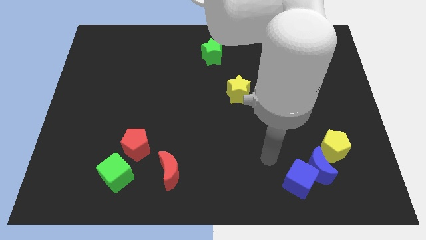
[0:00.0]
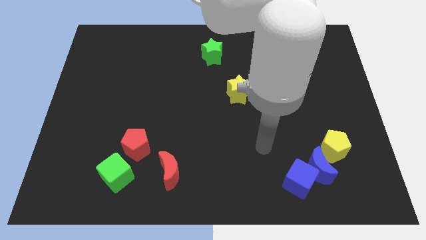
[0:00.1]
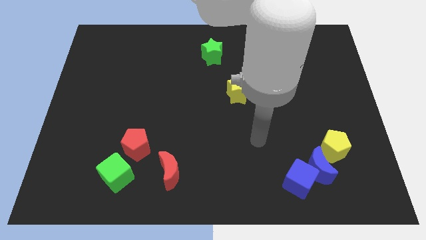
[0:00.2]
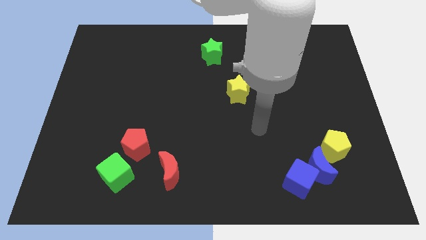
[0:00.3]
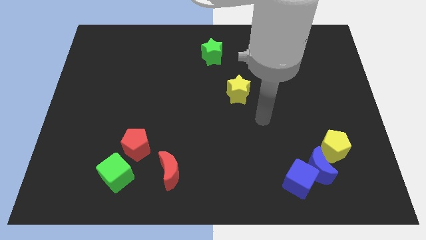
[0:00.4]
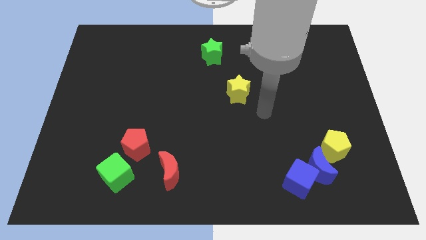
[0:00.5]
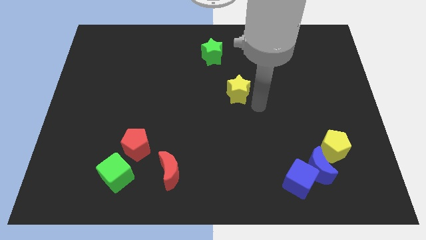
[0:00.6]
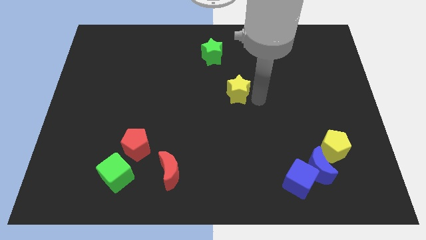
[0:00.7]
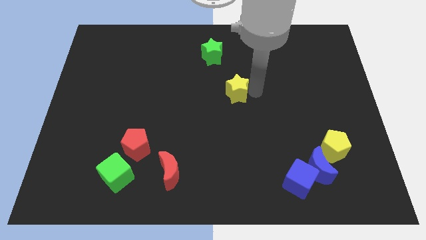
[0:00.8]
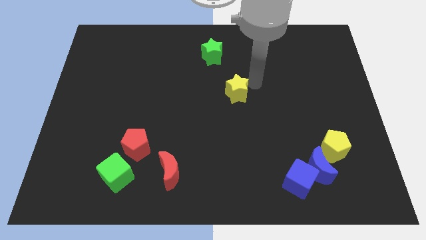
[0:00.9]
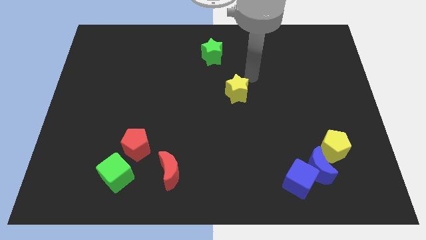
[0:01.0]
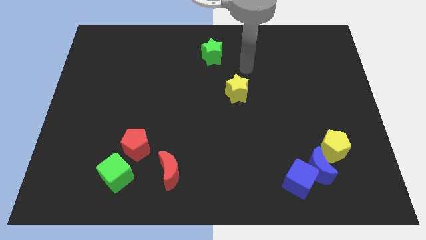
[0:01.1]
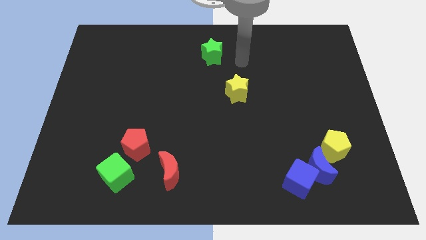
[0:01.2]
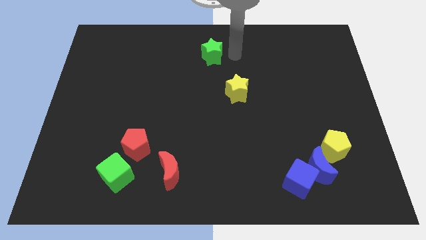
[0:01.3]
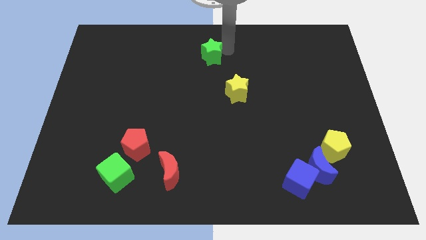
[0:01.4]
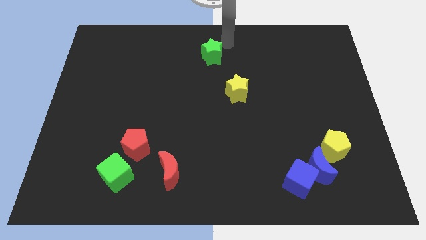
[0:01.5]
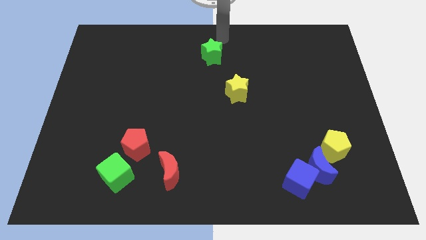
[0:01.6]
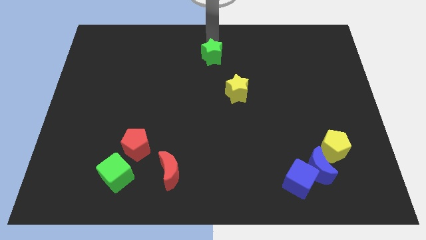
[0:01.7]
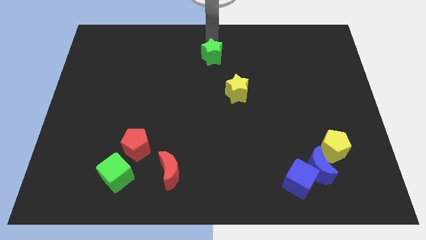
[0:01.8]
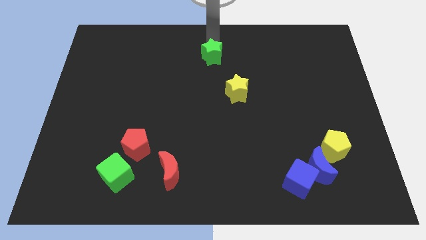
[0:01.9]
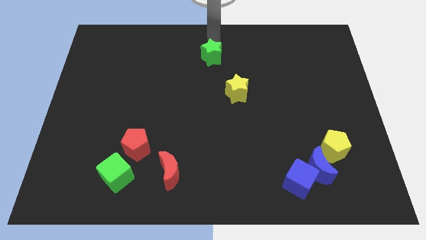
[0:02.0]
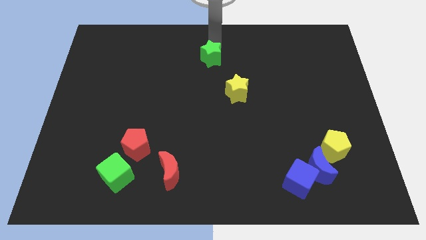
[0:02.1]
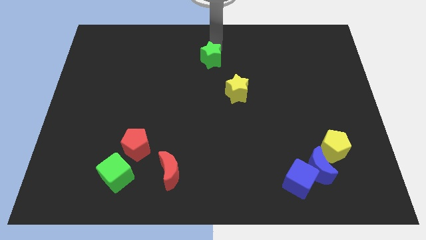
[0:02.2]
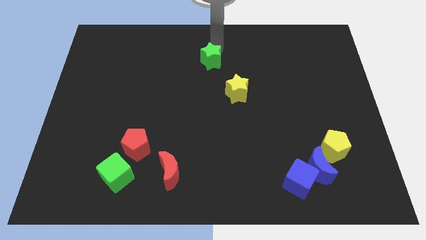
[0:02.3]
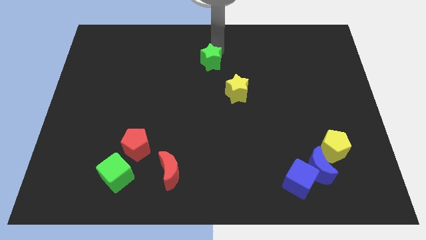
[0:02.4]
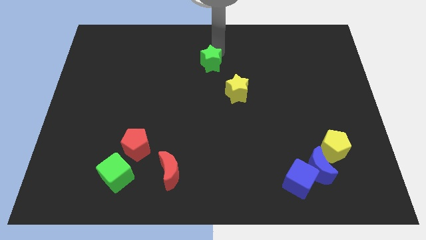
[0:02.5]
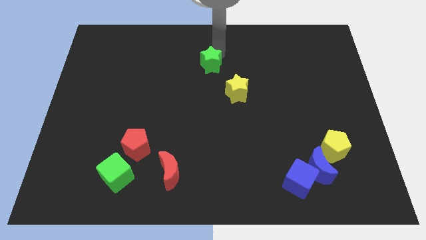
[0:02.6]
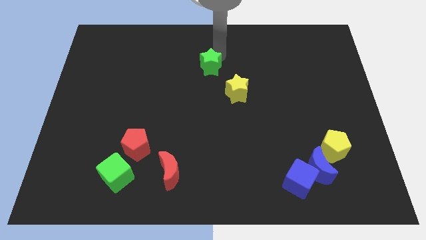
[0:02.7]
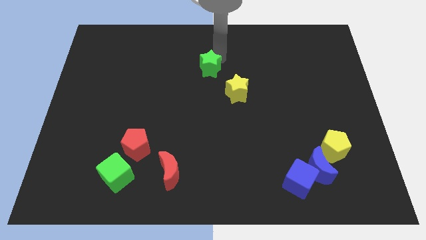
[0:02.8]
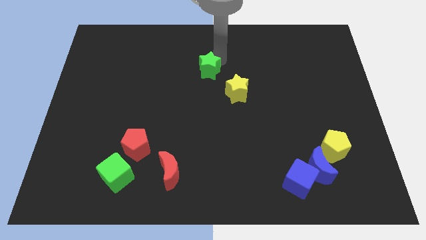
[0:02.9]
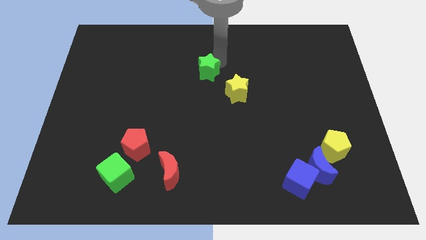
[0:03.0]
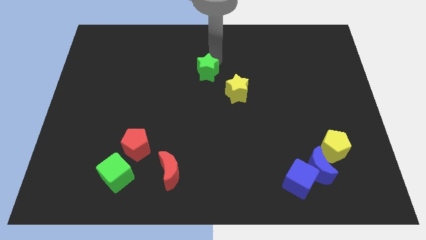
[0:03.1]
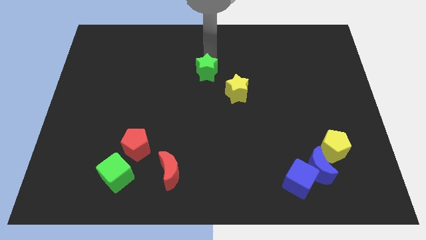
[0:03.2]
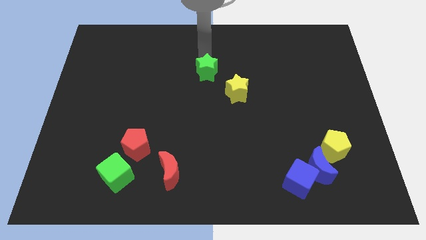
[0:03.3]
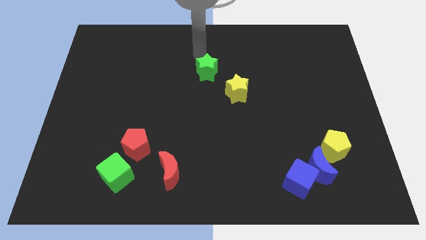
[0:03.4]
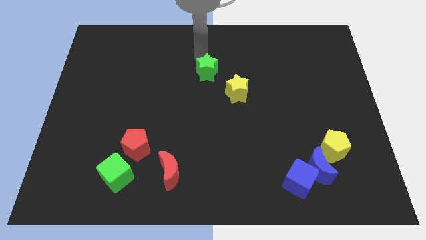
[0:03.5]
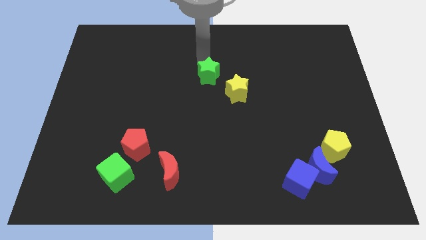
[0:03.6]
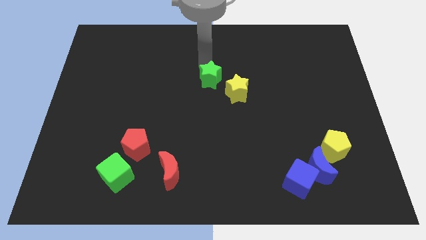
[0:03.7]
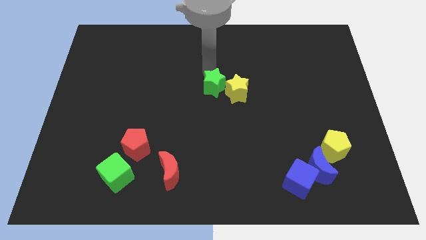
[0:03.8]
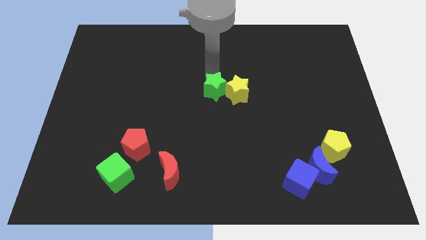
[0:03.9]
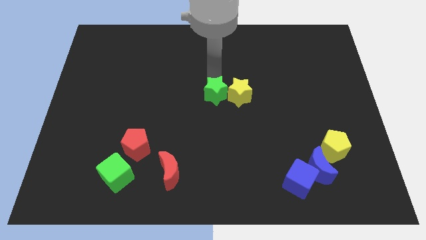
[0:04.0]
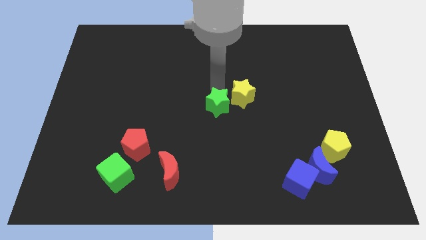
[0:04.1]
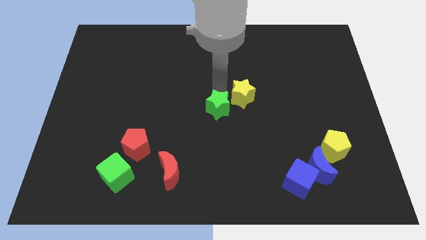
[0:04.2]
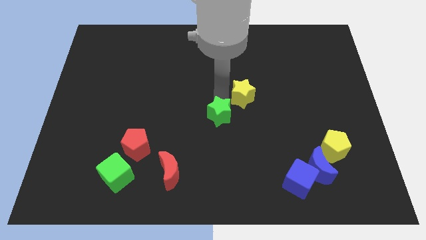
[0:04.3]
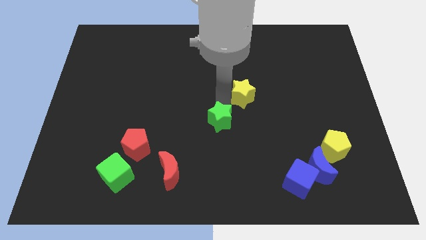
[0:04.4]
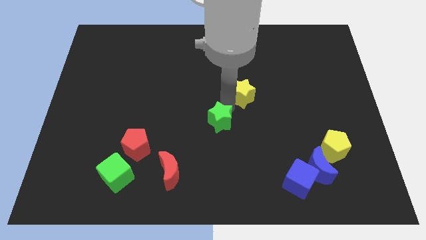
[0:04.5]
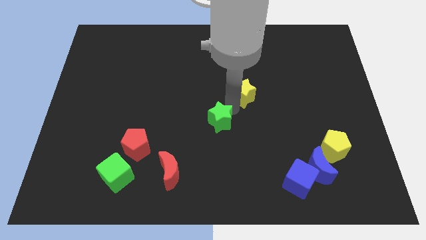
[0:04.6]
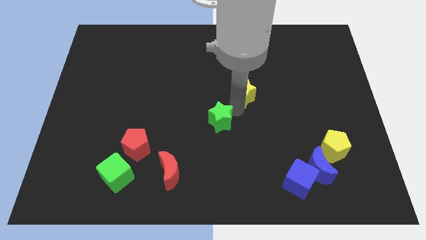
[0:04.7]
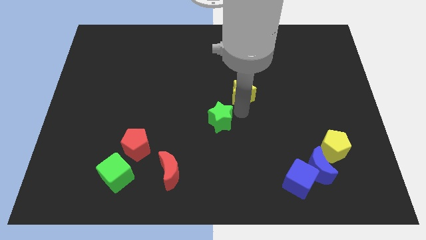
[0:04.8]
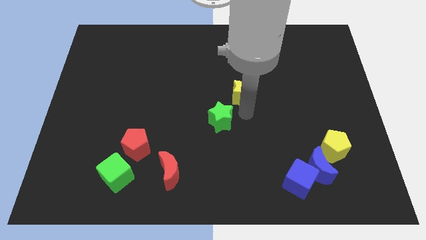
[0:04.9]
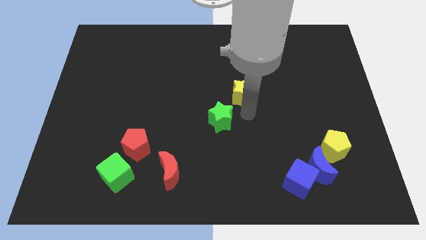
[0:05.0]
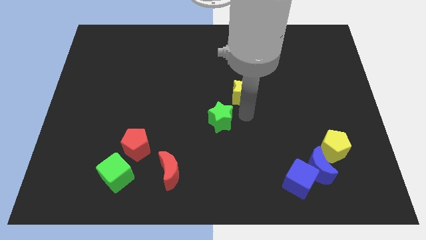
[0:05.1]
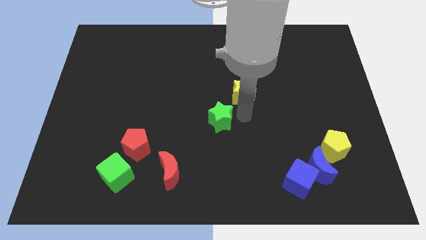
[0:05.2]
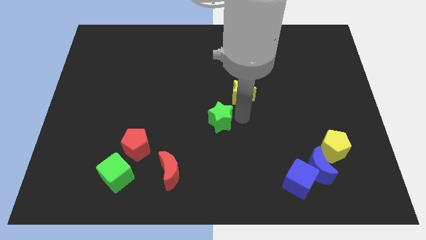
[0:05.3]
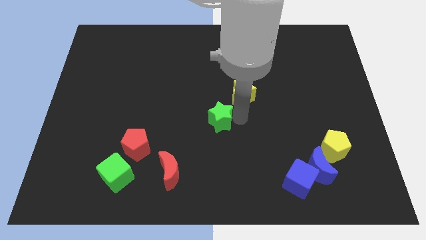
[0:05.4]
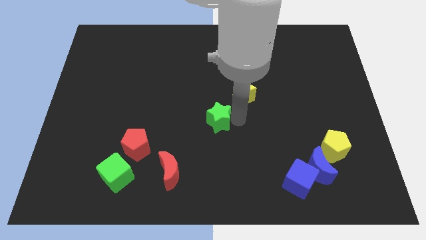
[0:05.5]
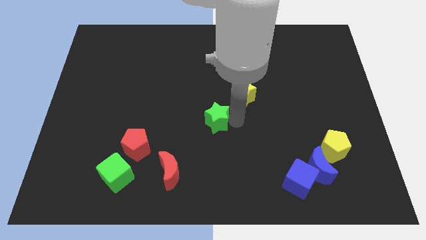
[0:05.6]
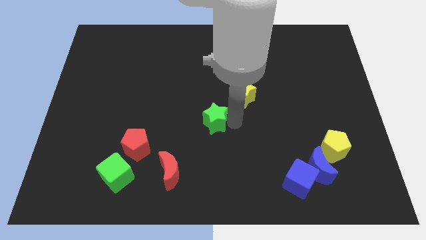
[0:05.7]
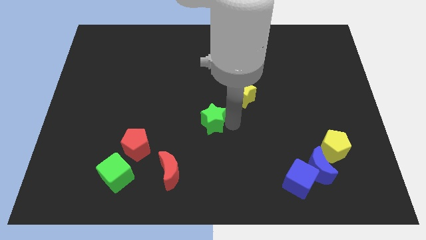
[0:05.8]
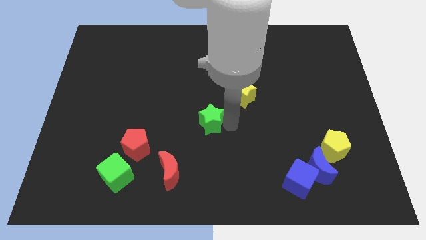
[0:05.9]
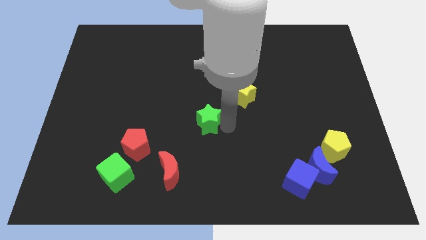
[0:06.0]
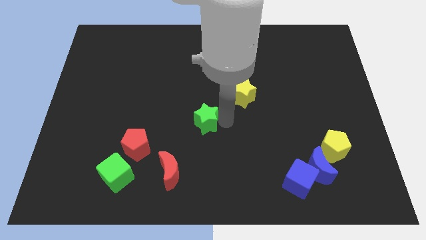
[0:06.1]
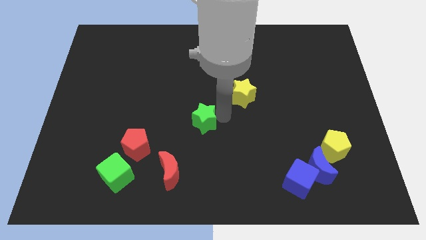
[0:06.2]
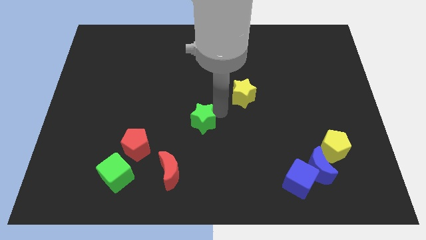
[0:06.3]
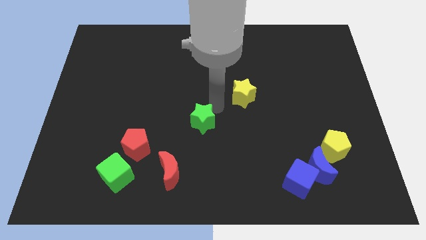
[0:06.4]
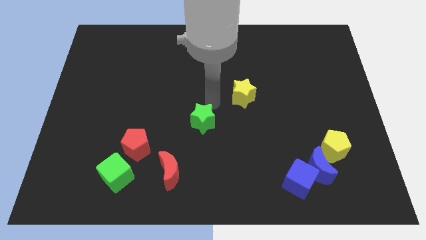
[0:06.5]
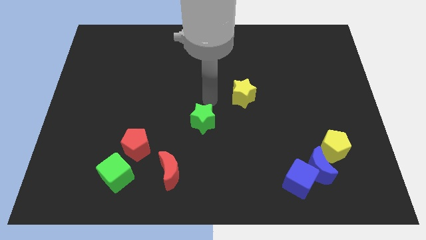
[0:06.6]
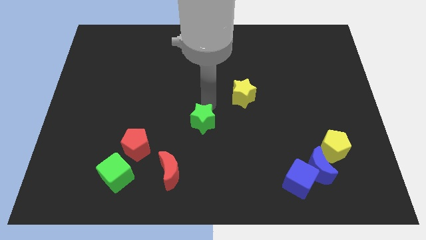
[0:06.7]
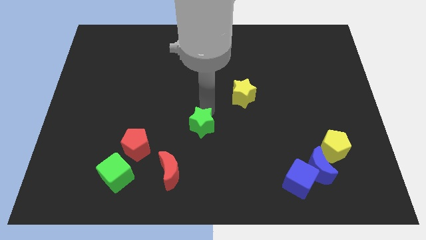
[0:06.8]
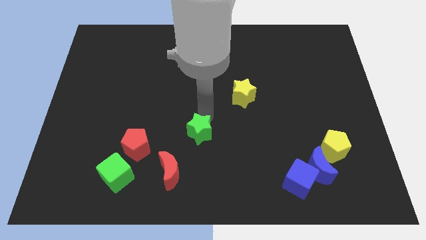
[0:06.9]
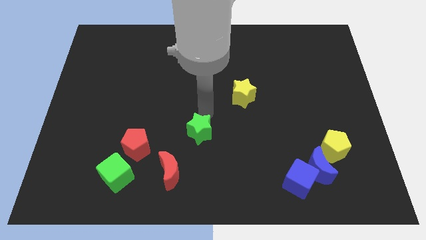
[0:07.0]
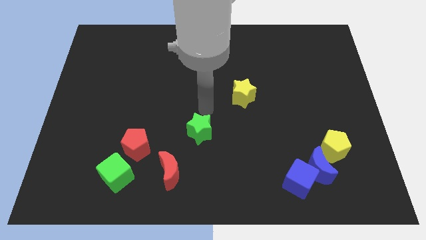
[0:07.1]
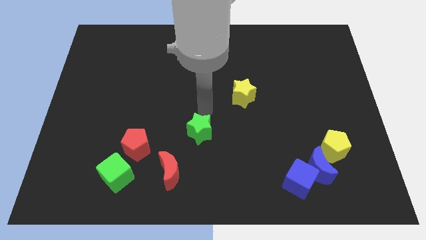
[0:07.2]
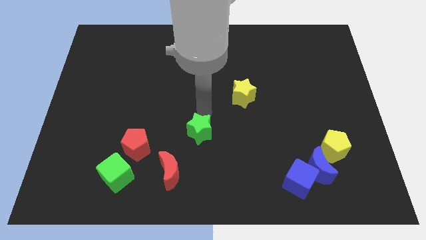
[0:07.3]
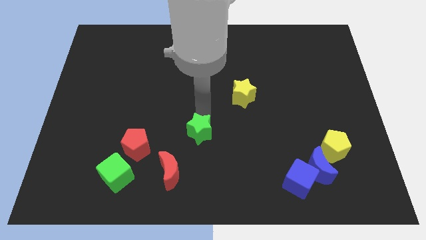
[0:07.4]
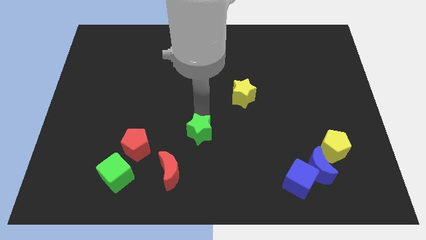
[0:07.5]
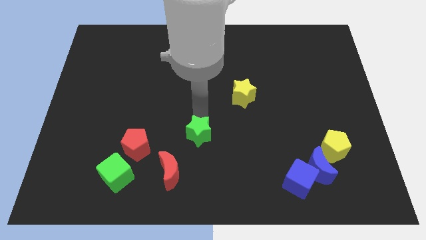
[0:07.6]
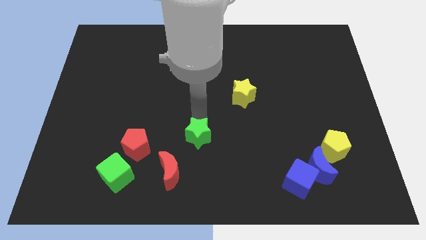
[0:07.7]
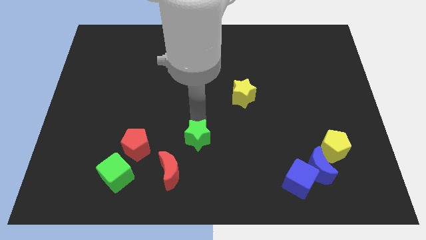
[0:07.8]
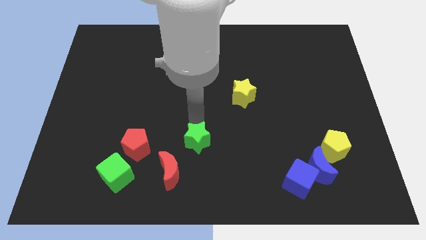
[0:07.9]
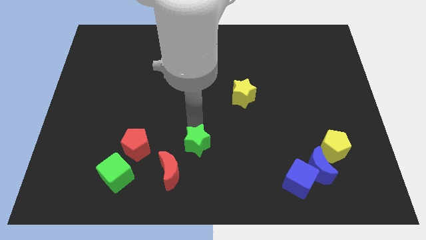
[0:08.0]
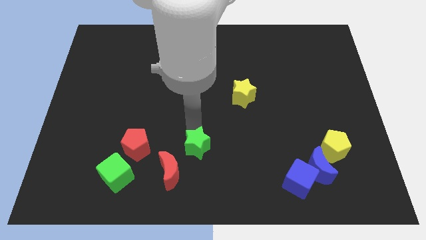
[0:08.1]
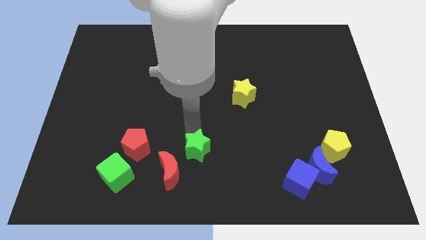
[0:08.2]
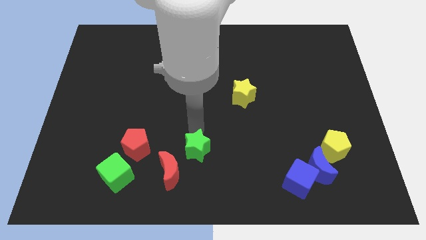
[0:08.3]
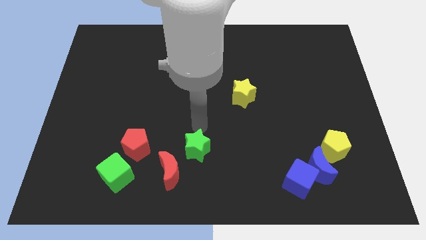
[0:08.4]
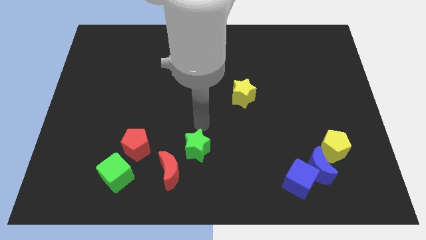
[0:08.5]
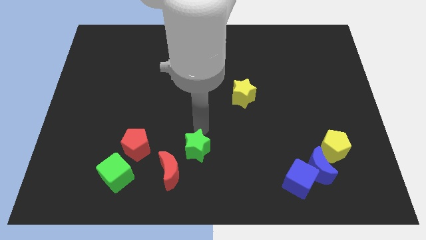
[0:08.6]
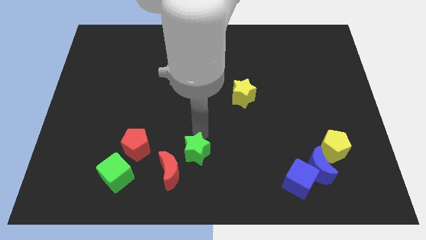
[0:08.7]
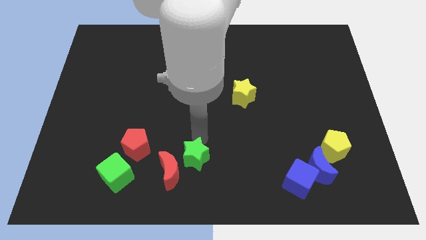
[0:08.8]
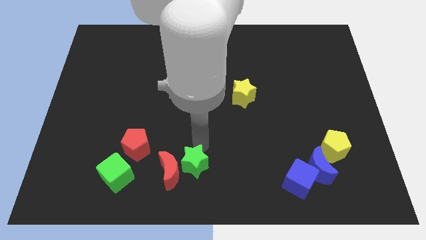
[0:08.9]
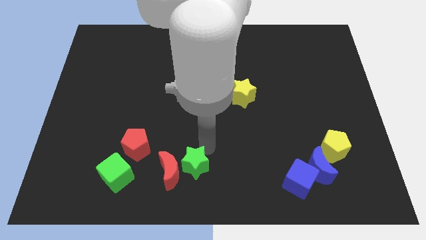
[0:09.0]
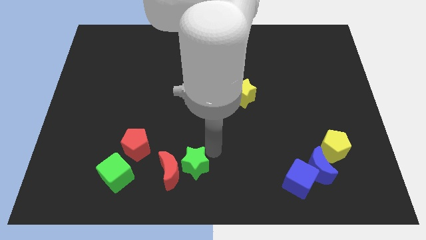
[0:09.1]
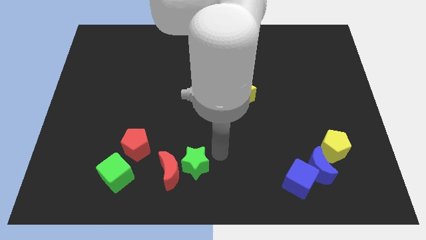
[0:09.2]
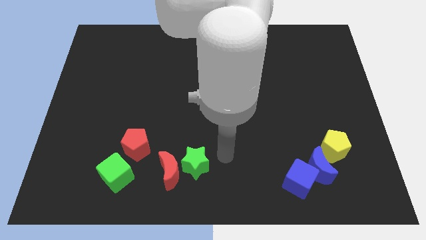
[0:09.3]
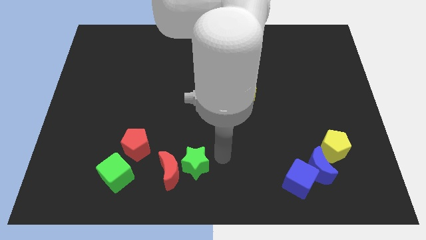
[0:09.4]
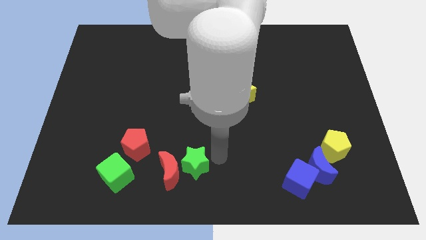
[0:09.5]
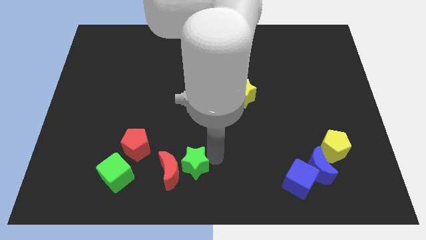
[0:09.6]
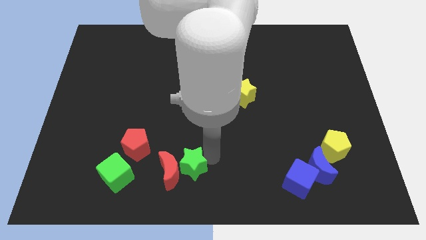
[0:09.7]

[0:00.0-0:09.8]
move the green star right of the green cube
